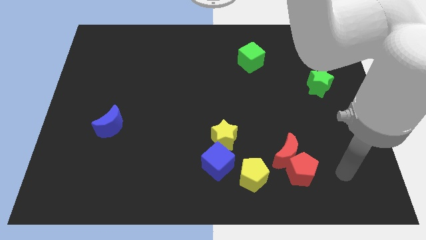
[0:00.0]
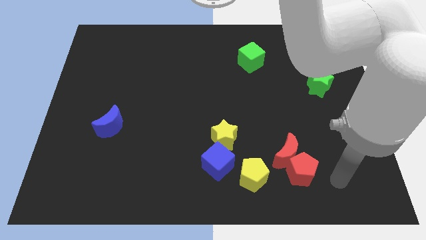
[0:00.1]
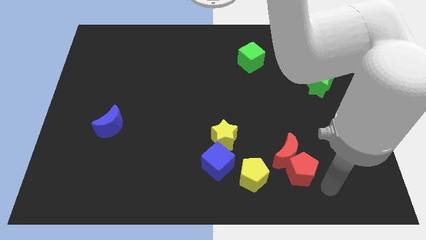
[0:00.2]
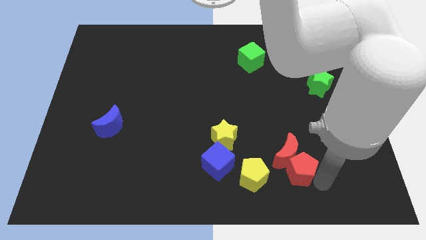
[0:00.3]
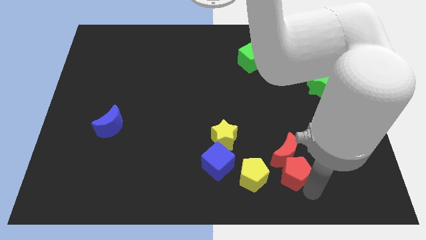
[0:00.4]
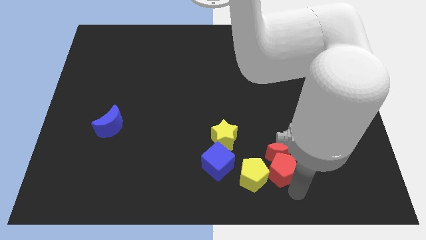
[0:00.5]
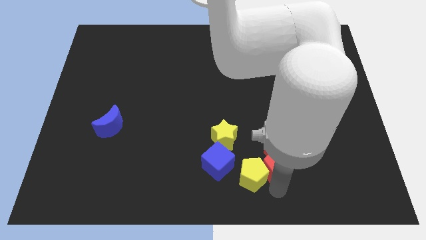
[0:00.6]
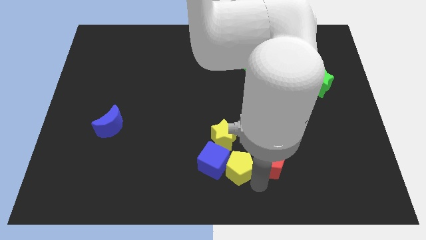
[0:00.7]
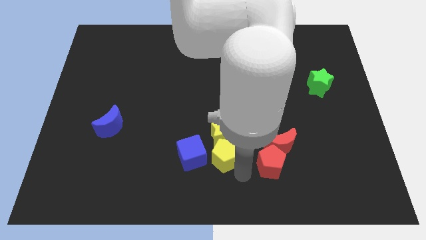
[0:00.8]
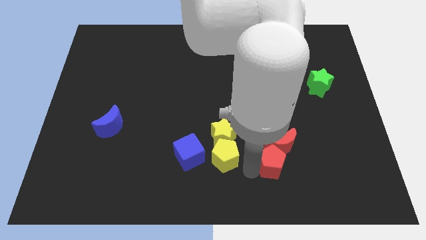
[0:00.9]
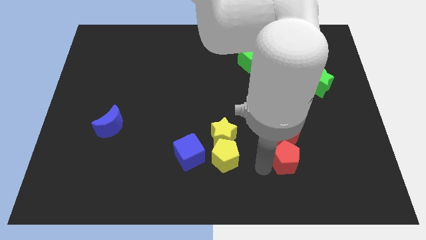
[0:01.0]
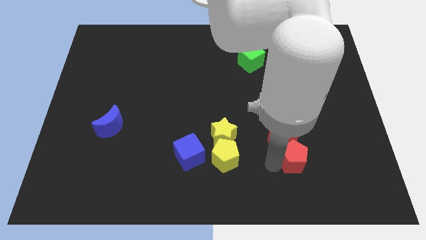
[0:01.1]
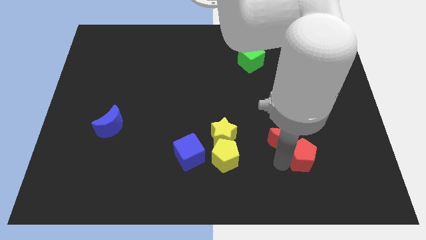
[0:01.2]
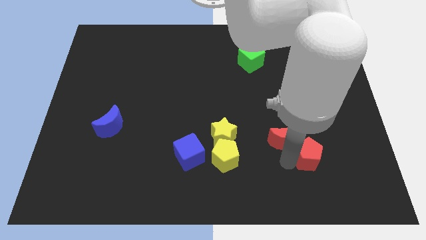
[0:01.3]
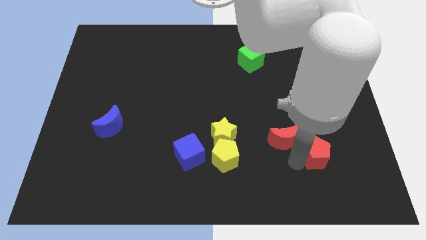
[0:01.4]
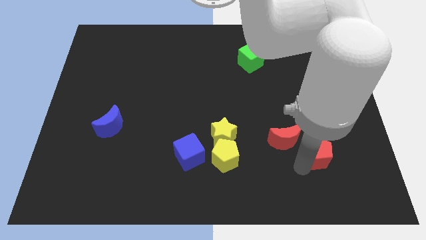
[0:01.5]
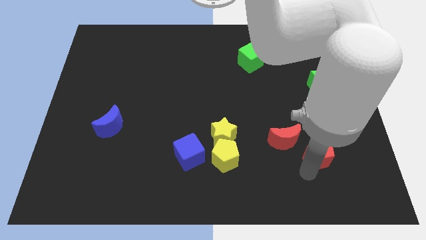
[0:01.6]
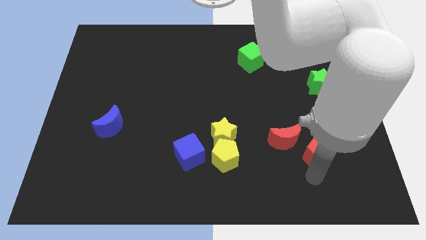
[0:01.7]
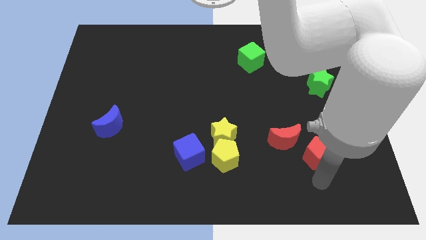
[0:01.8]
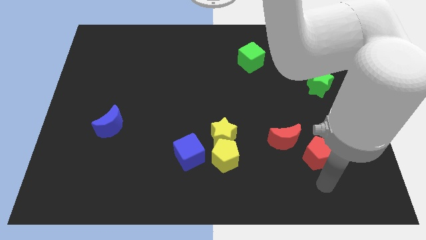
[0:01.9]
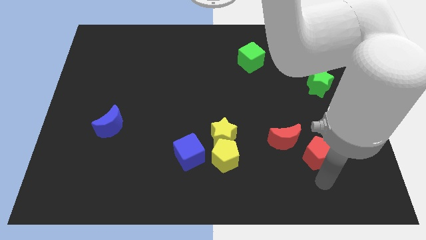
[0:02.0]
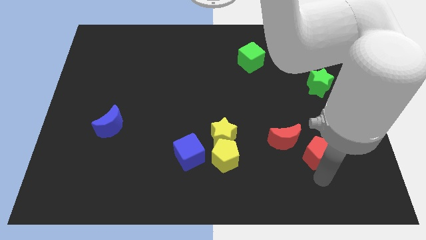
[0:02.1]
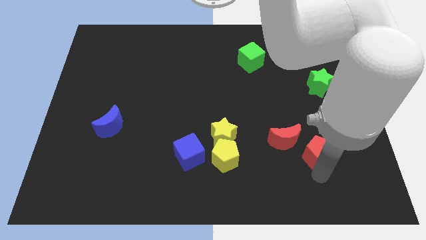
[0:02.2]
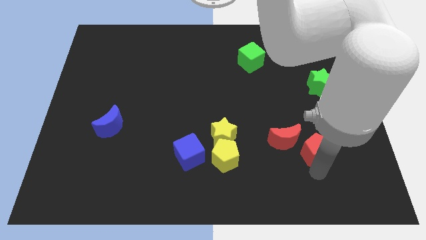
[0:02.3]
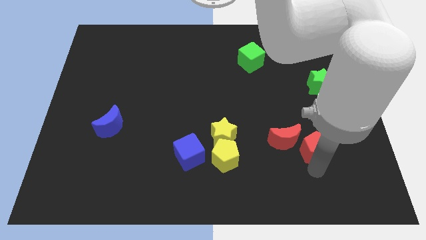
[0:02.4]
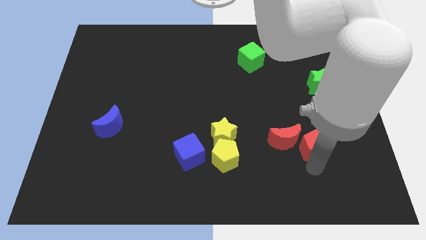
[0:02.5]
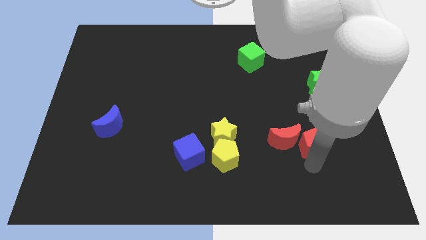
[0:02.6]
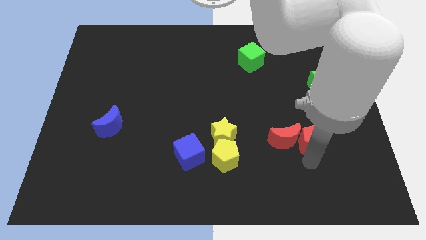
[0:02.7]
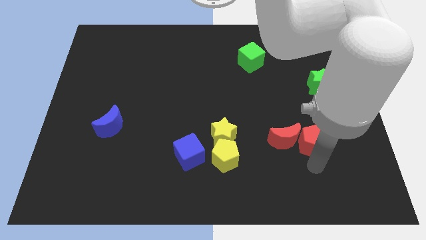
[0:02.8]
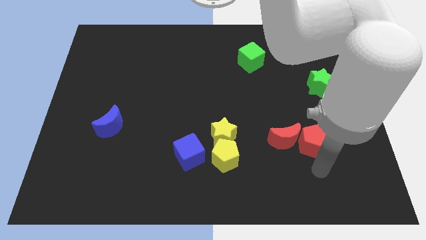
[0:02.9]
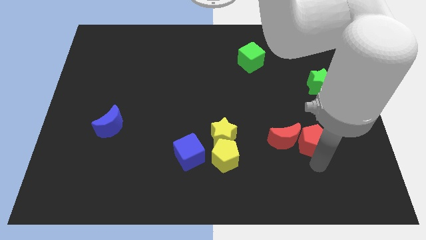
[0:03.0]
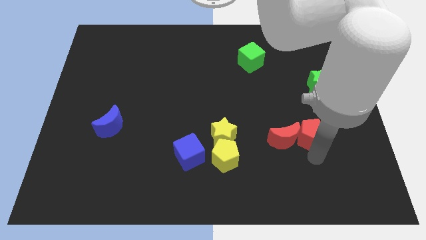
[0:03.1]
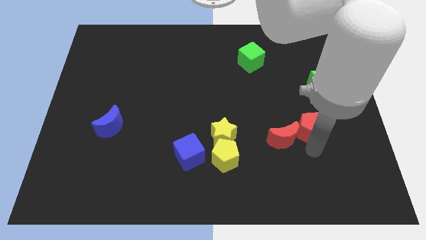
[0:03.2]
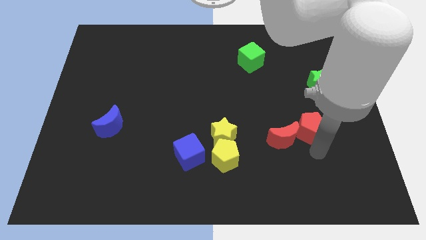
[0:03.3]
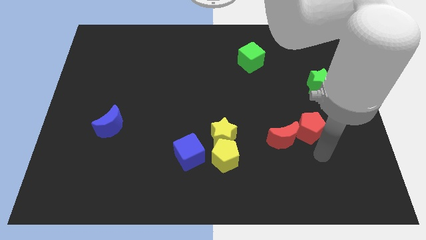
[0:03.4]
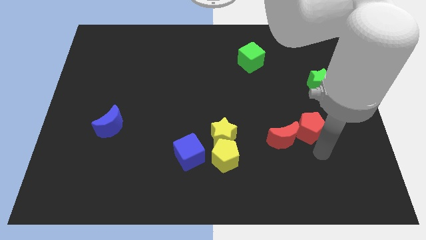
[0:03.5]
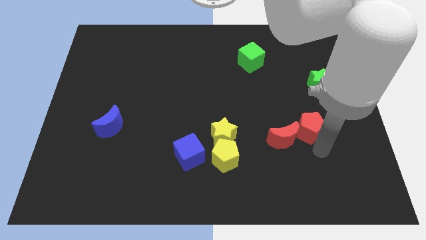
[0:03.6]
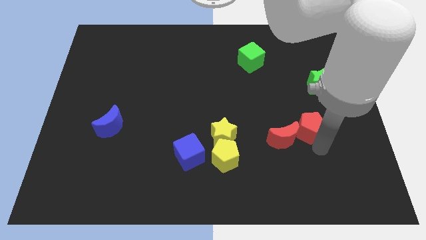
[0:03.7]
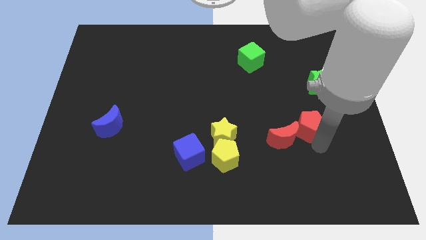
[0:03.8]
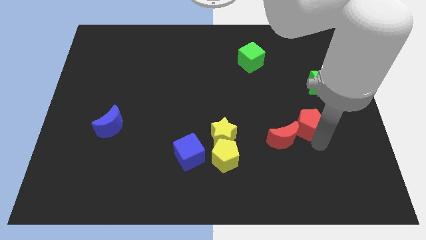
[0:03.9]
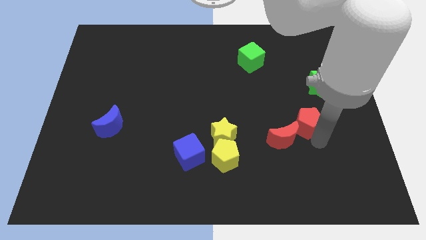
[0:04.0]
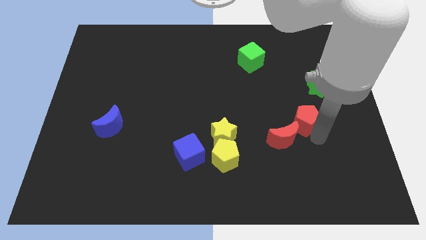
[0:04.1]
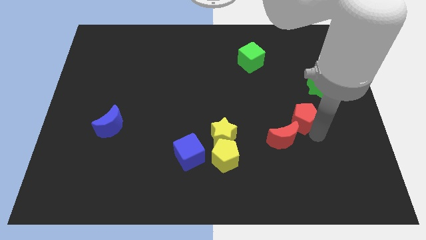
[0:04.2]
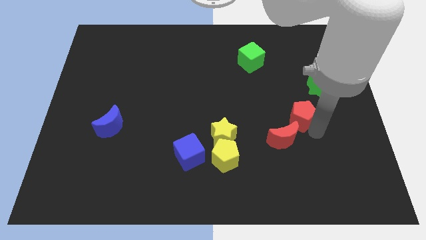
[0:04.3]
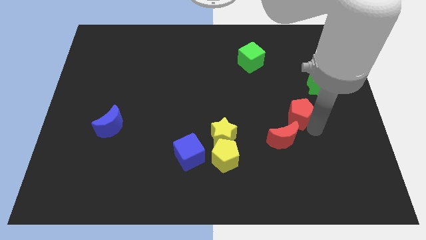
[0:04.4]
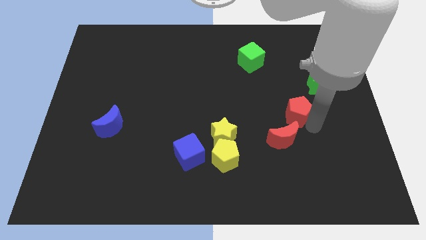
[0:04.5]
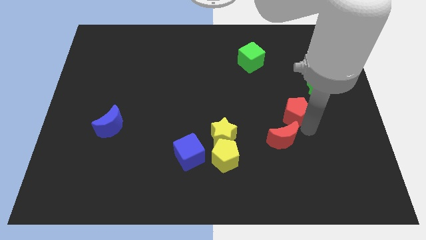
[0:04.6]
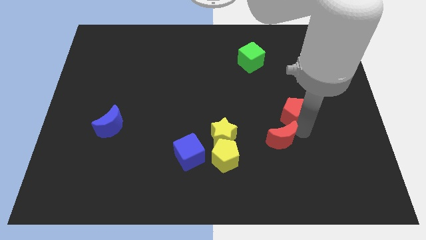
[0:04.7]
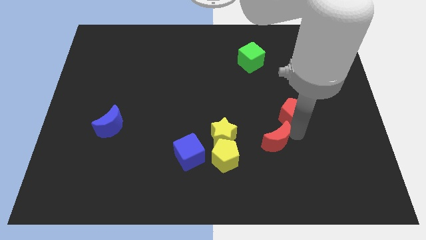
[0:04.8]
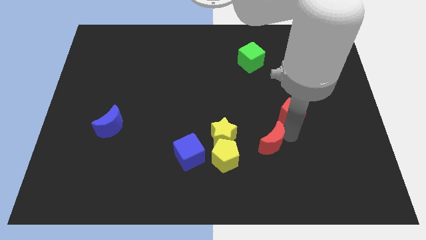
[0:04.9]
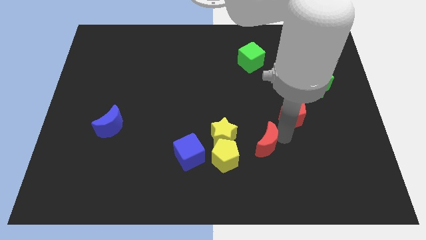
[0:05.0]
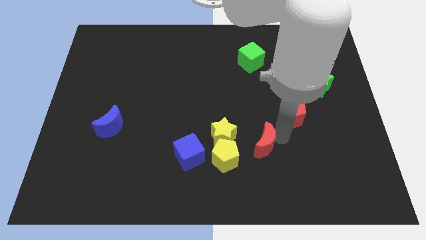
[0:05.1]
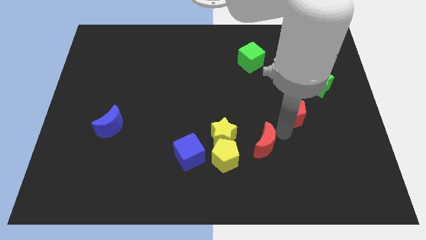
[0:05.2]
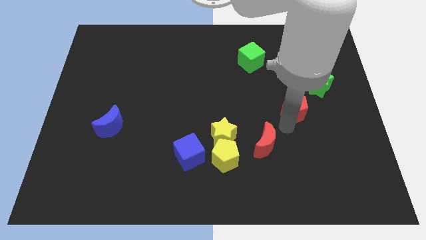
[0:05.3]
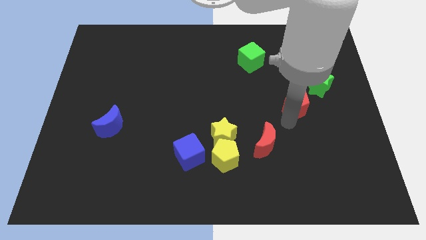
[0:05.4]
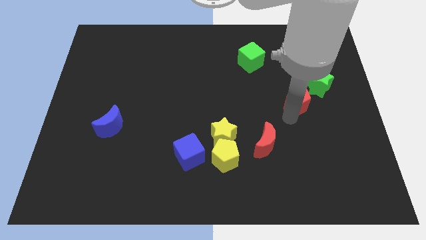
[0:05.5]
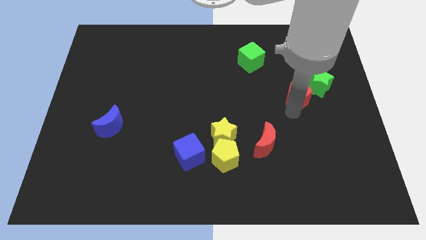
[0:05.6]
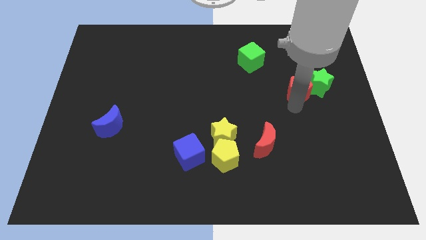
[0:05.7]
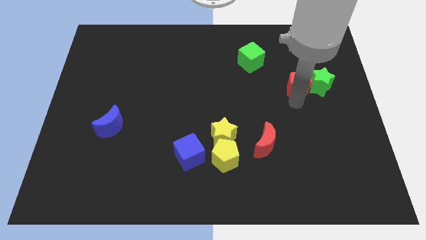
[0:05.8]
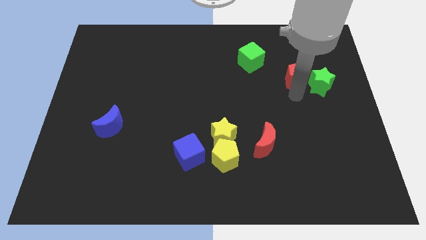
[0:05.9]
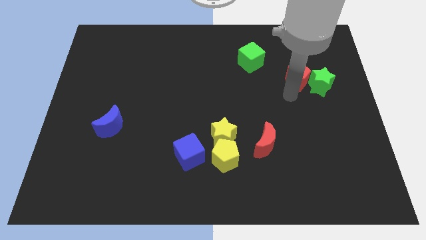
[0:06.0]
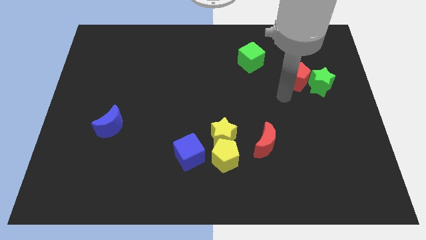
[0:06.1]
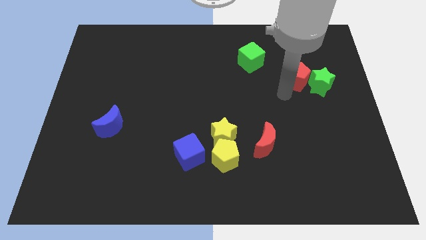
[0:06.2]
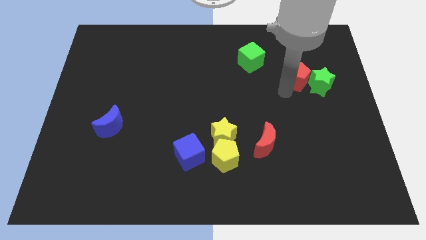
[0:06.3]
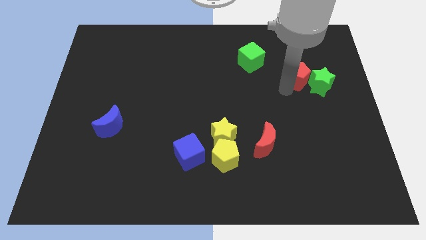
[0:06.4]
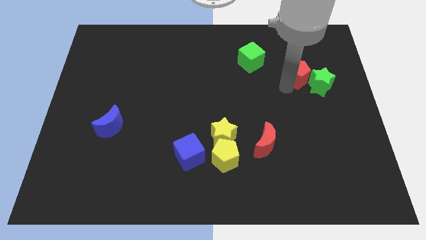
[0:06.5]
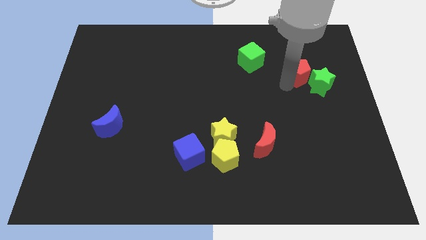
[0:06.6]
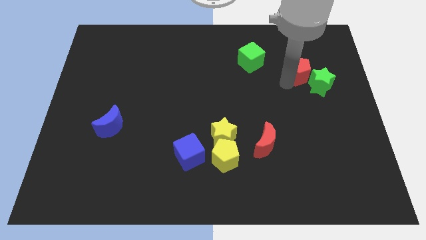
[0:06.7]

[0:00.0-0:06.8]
put the red pentagon above the green star

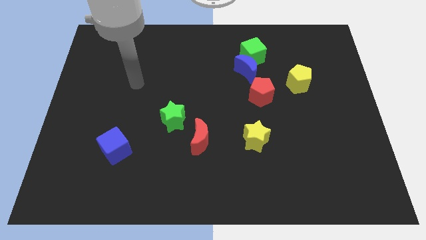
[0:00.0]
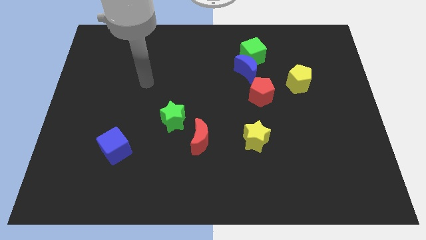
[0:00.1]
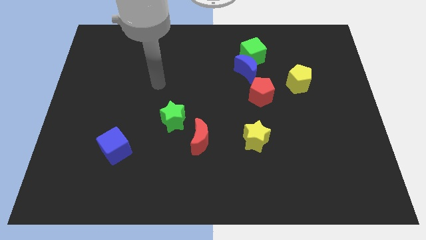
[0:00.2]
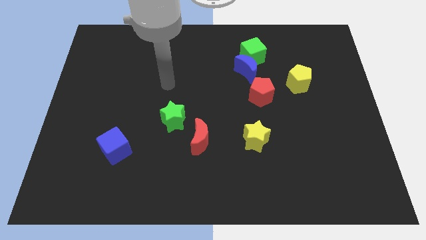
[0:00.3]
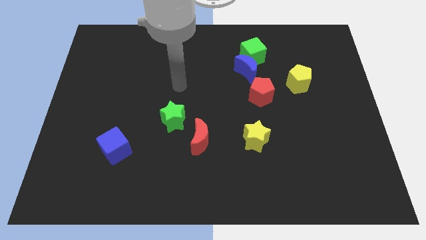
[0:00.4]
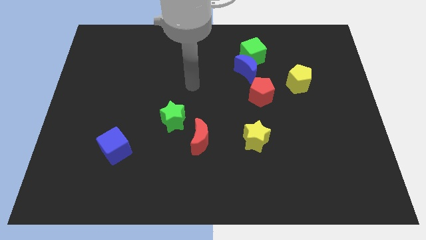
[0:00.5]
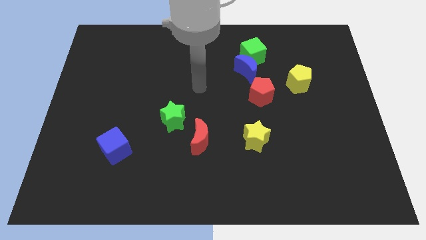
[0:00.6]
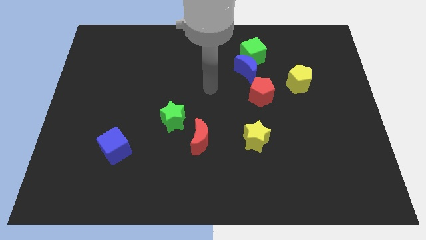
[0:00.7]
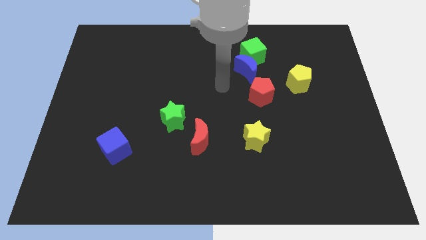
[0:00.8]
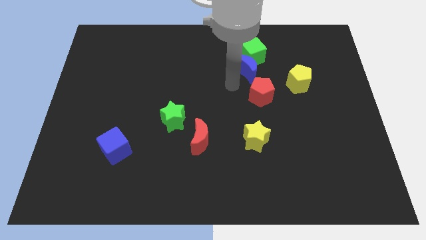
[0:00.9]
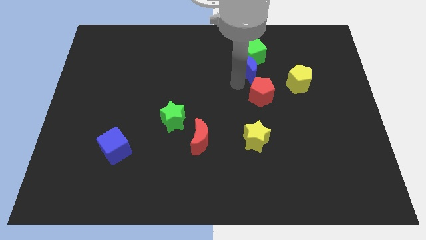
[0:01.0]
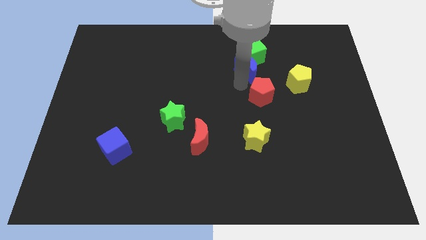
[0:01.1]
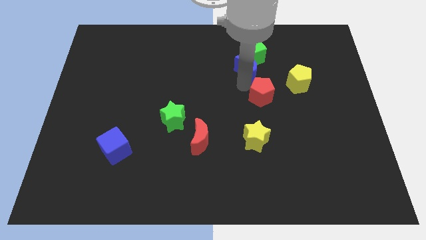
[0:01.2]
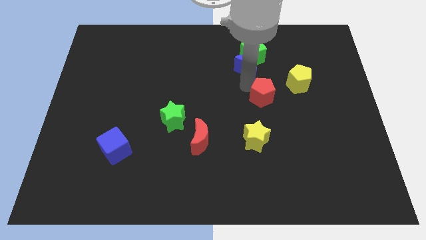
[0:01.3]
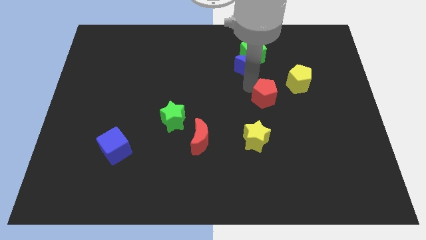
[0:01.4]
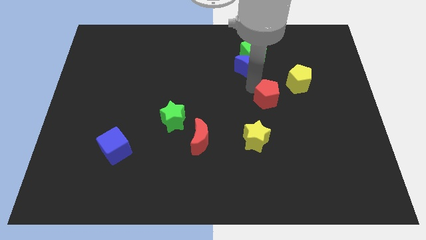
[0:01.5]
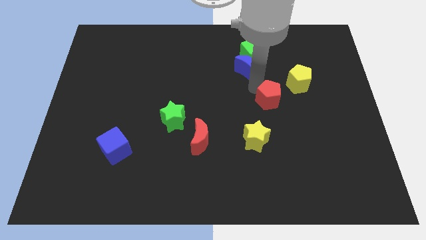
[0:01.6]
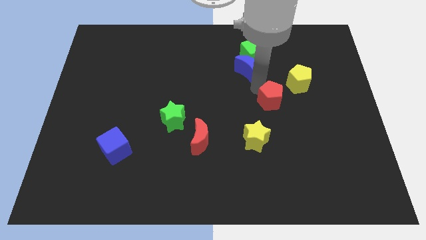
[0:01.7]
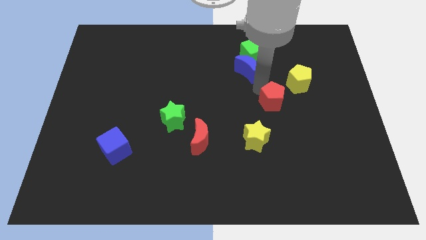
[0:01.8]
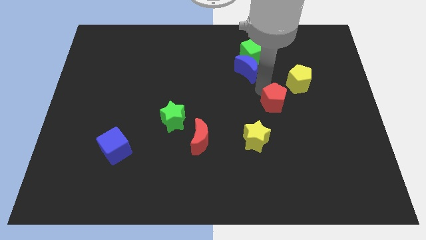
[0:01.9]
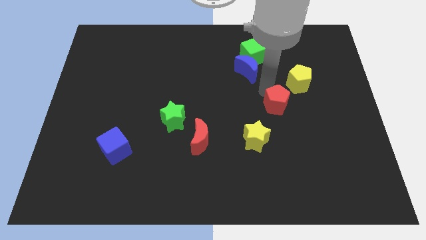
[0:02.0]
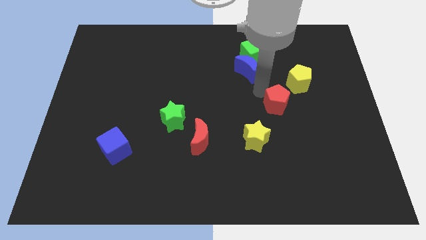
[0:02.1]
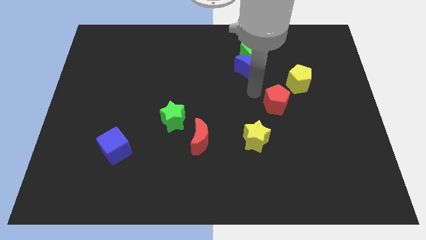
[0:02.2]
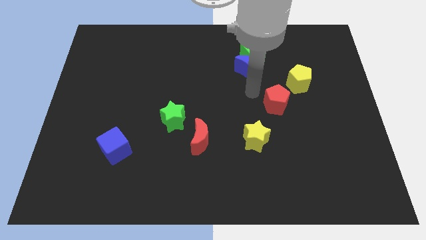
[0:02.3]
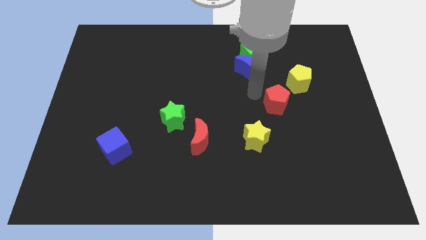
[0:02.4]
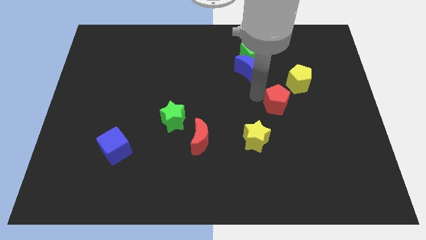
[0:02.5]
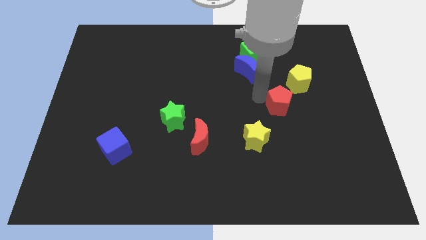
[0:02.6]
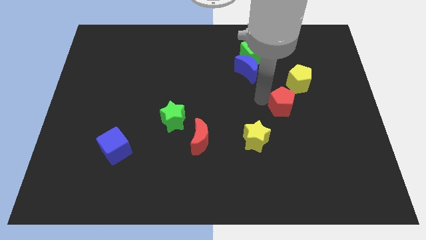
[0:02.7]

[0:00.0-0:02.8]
push the red pentagon below the yellow pentagon
